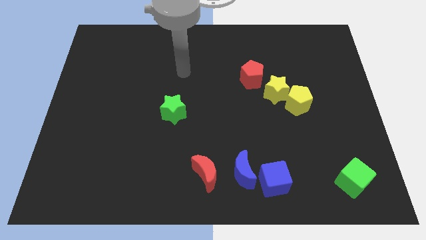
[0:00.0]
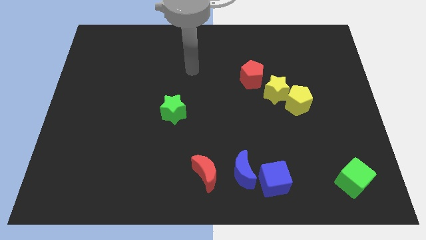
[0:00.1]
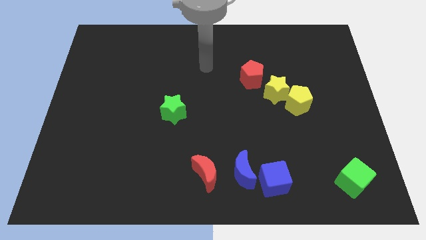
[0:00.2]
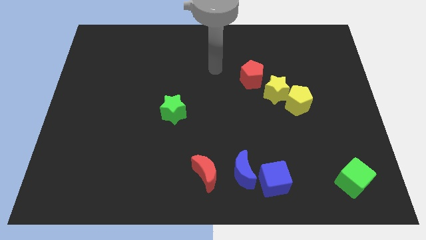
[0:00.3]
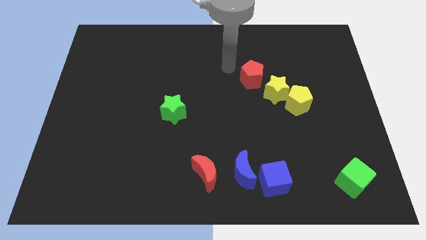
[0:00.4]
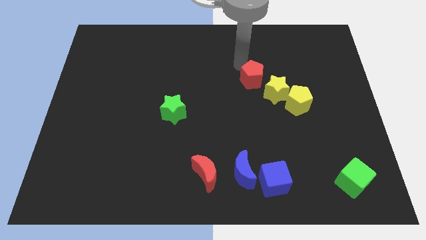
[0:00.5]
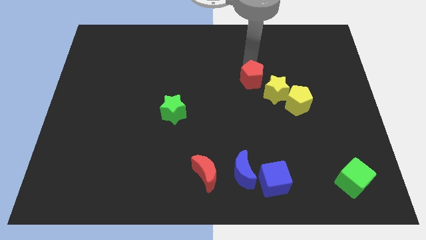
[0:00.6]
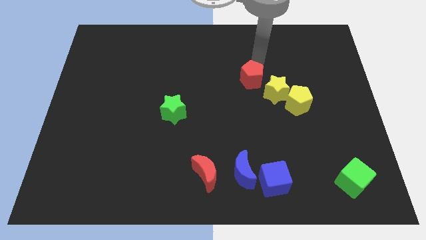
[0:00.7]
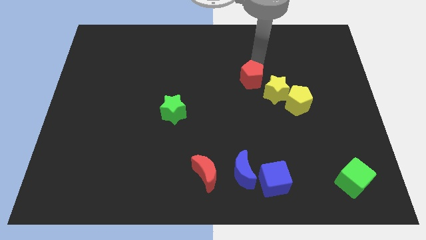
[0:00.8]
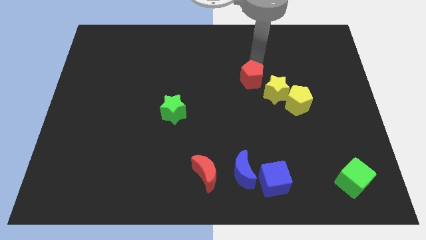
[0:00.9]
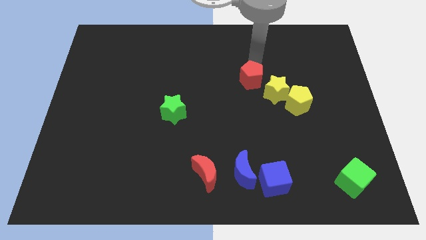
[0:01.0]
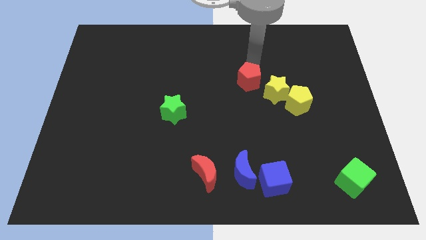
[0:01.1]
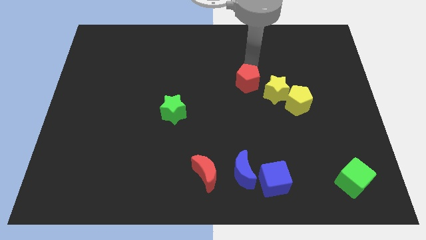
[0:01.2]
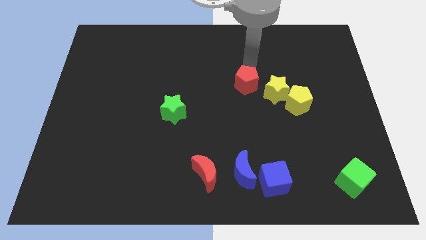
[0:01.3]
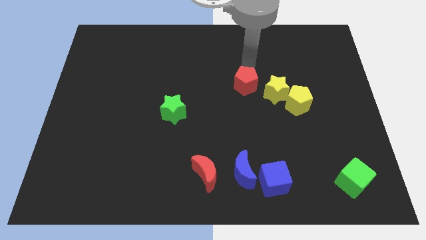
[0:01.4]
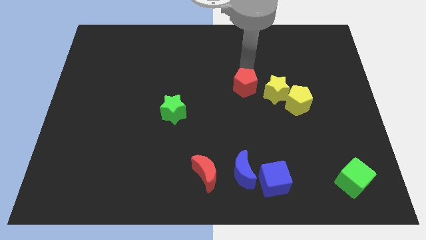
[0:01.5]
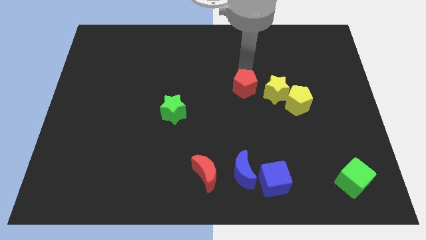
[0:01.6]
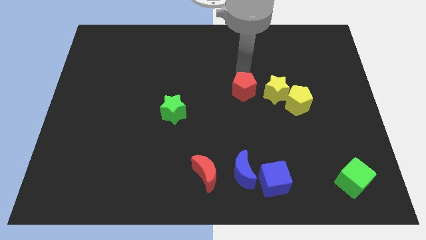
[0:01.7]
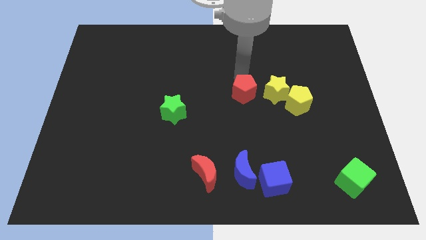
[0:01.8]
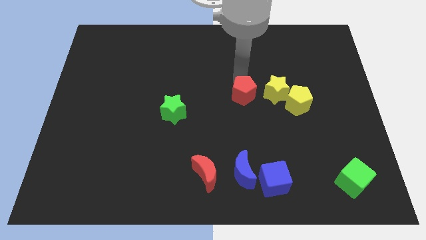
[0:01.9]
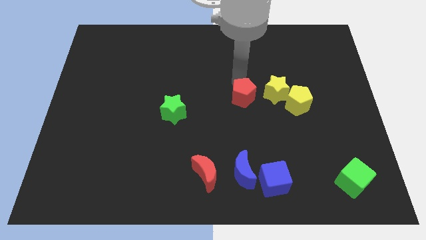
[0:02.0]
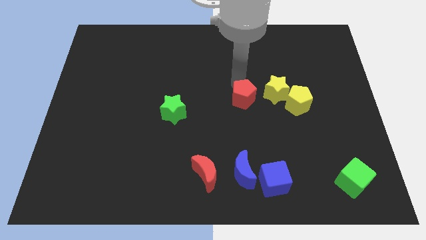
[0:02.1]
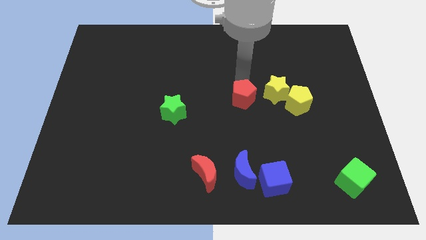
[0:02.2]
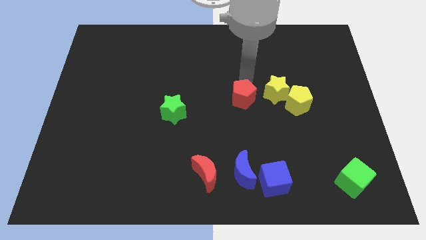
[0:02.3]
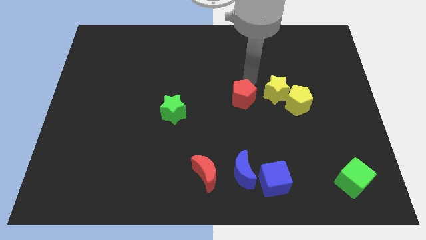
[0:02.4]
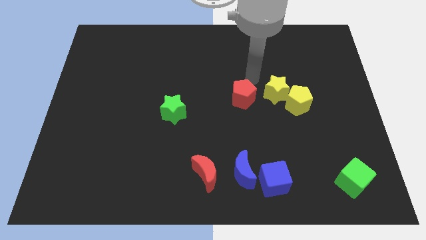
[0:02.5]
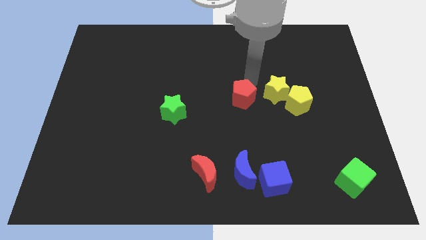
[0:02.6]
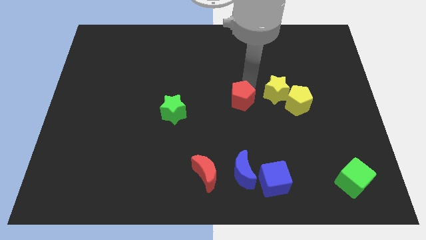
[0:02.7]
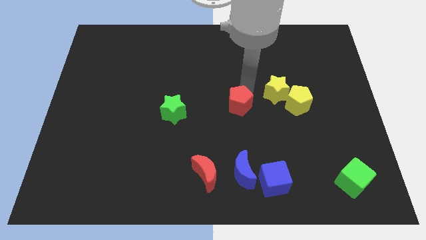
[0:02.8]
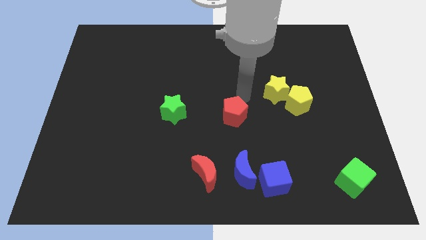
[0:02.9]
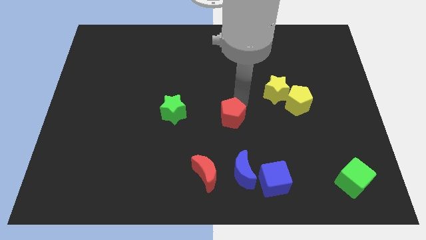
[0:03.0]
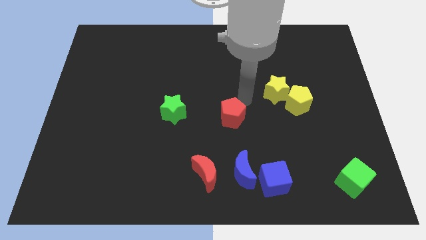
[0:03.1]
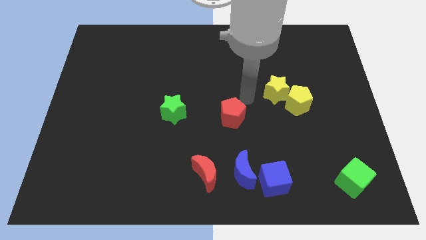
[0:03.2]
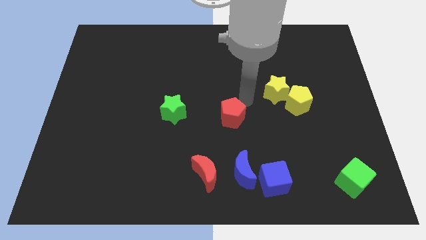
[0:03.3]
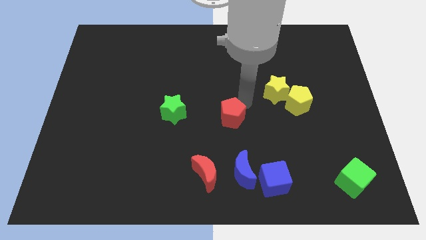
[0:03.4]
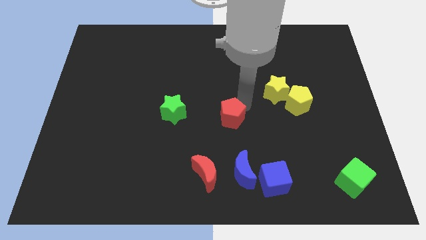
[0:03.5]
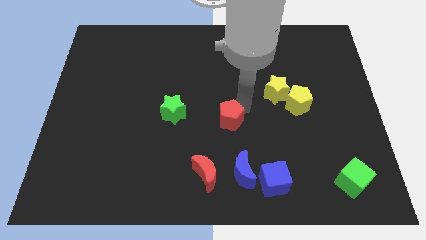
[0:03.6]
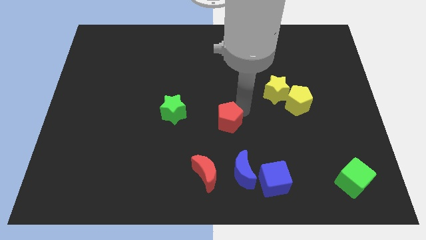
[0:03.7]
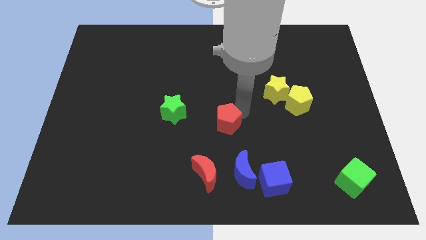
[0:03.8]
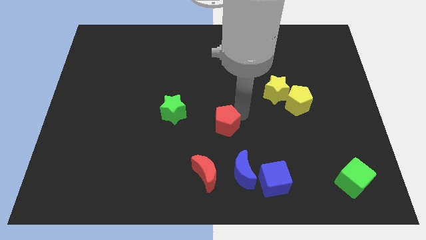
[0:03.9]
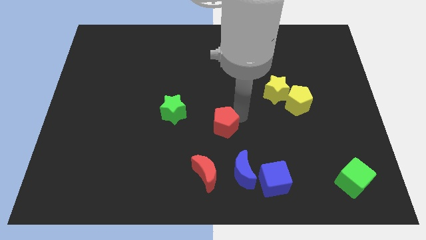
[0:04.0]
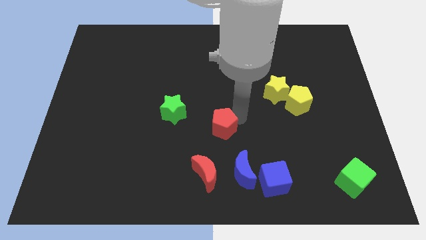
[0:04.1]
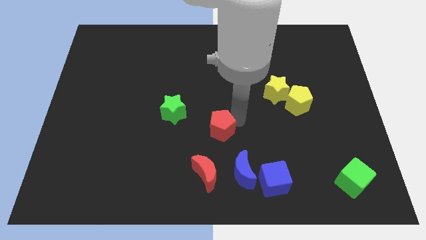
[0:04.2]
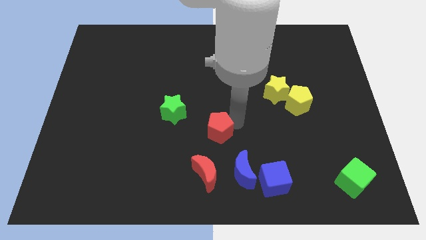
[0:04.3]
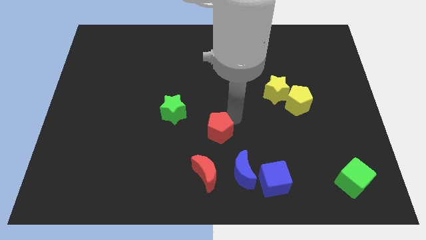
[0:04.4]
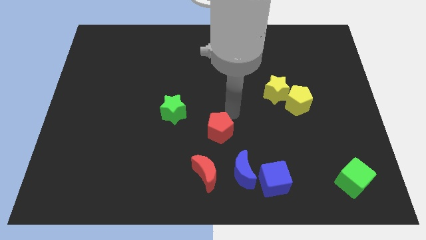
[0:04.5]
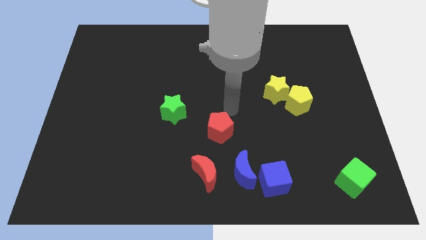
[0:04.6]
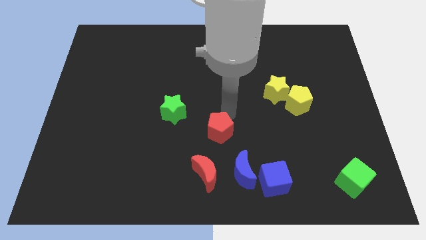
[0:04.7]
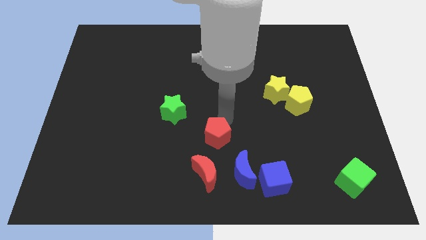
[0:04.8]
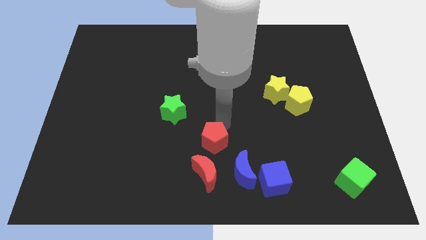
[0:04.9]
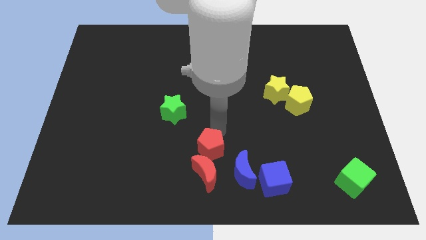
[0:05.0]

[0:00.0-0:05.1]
move the red pentagon to the red moon

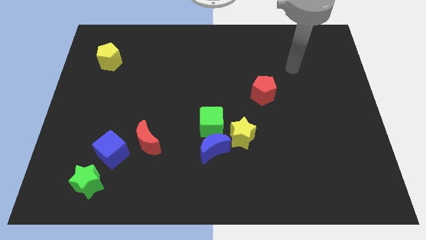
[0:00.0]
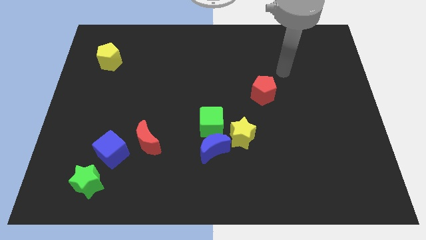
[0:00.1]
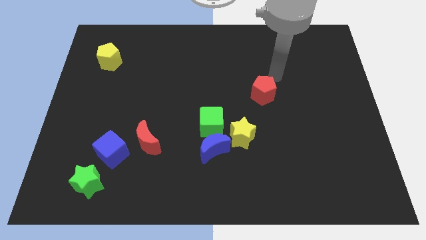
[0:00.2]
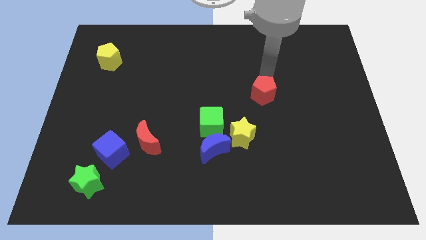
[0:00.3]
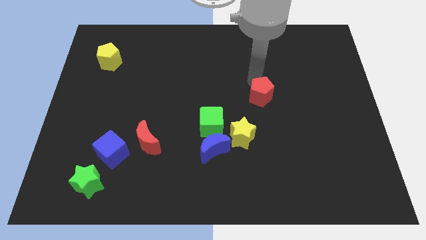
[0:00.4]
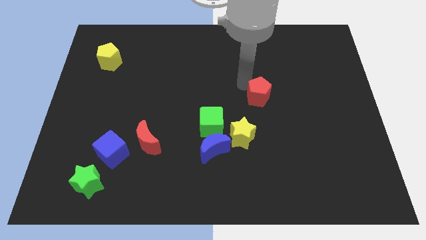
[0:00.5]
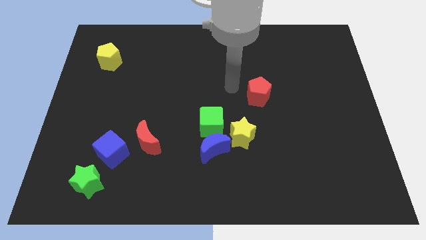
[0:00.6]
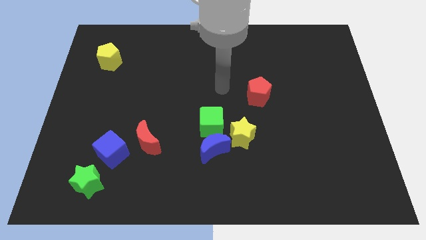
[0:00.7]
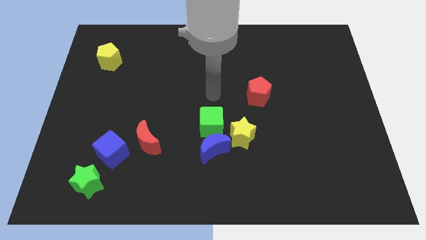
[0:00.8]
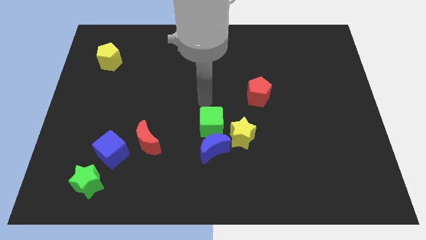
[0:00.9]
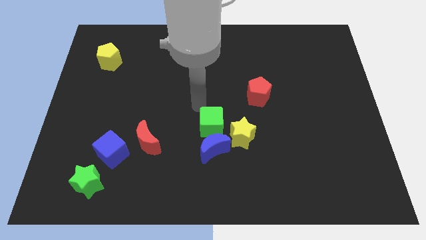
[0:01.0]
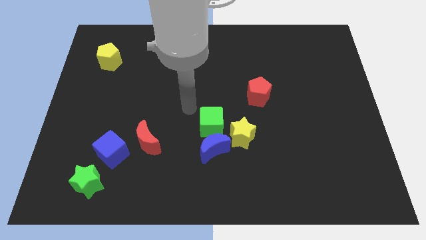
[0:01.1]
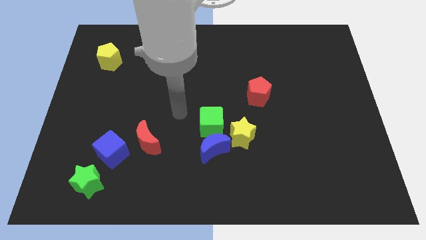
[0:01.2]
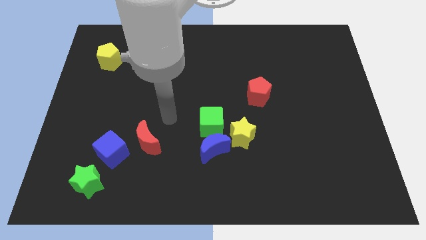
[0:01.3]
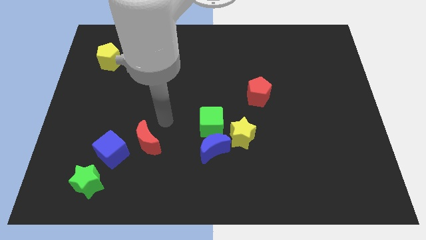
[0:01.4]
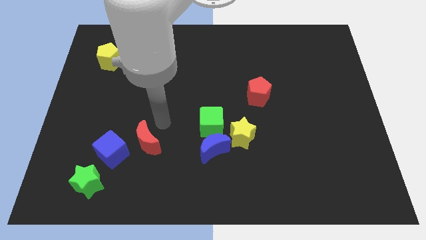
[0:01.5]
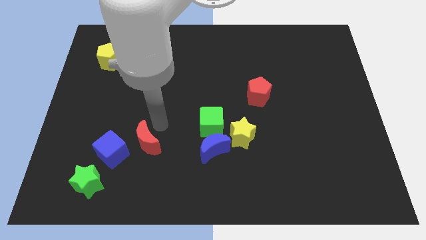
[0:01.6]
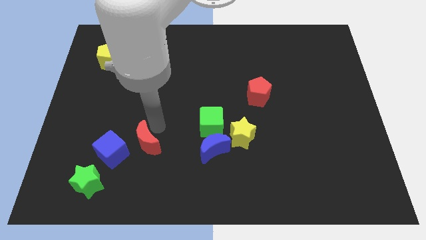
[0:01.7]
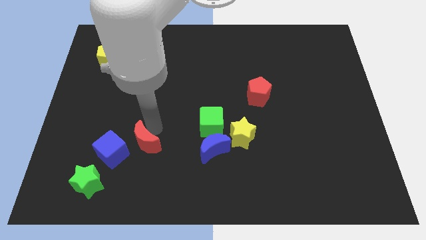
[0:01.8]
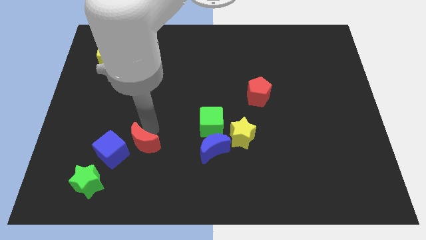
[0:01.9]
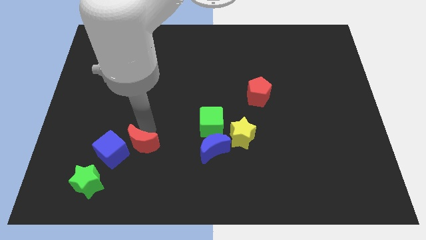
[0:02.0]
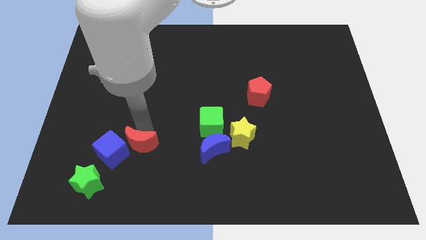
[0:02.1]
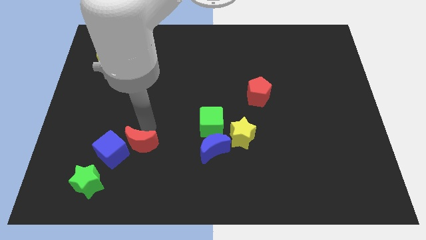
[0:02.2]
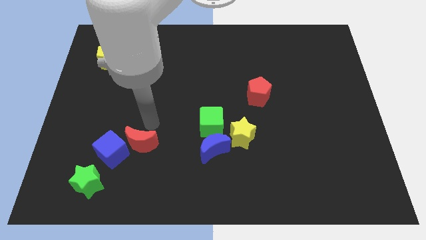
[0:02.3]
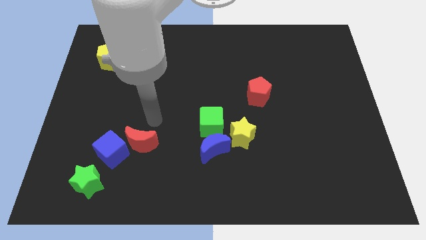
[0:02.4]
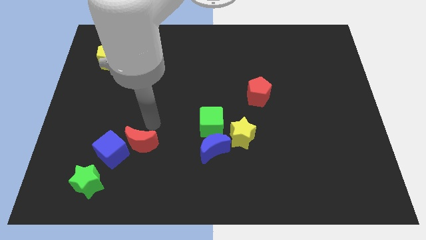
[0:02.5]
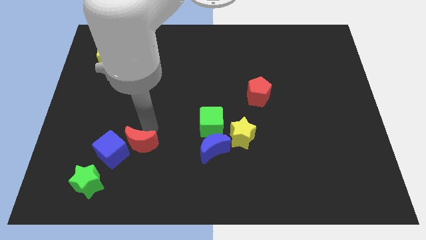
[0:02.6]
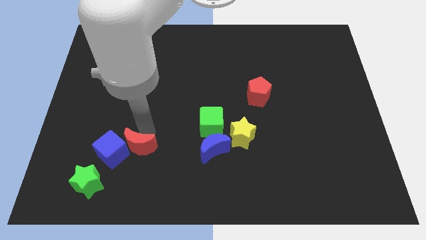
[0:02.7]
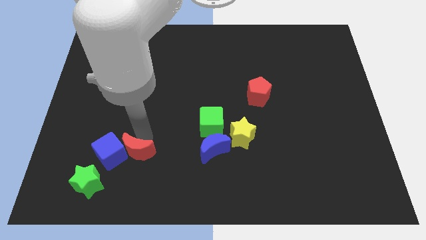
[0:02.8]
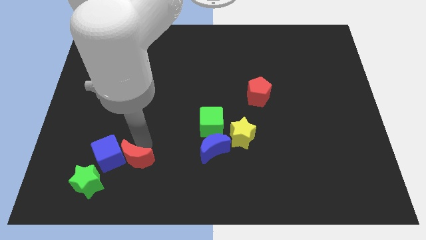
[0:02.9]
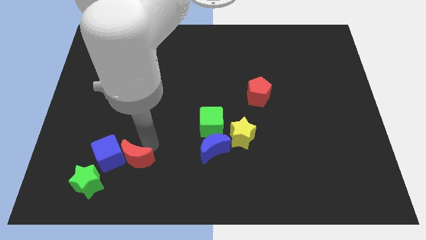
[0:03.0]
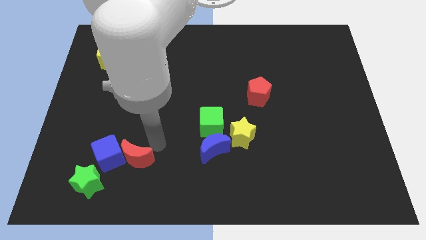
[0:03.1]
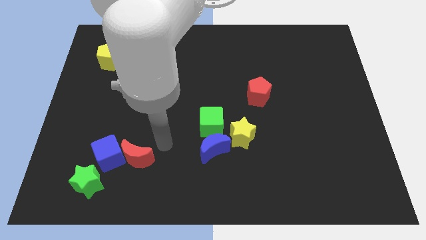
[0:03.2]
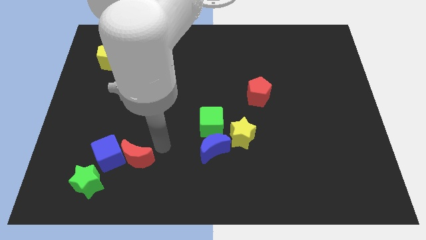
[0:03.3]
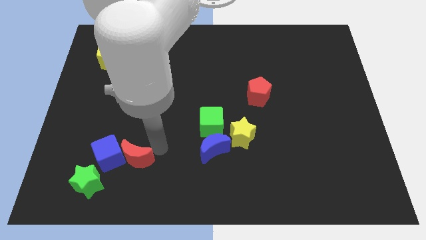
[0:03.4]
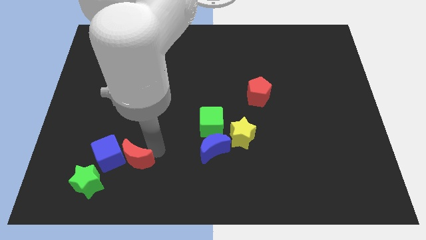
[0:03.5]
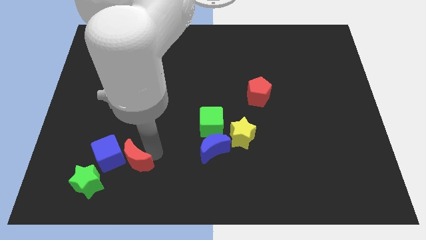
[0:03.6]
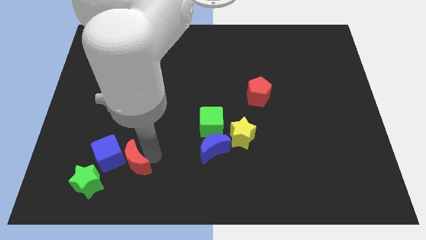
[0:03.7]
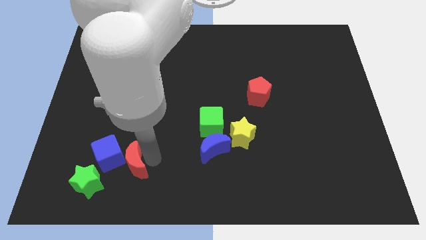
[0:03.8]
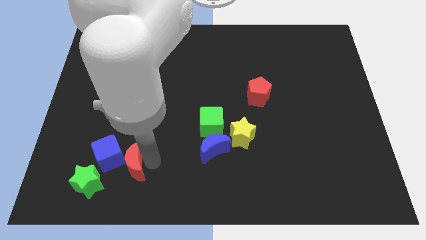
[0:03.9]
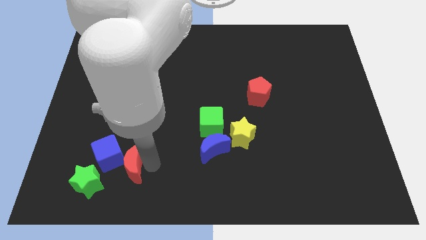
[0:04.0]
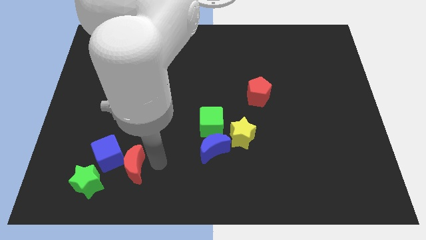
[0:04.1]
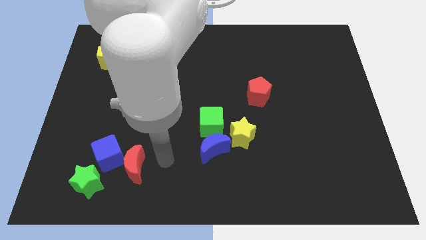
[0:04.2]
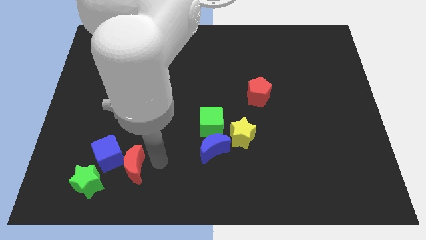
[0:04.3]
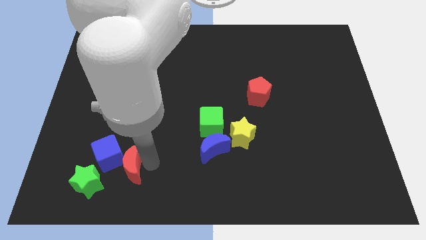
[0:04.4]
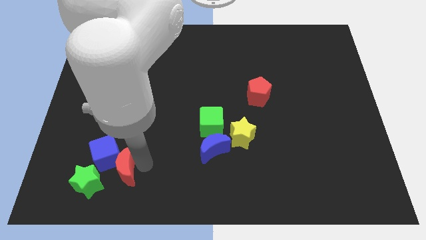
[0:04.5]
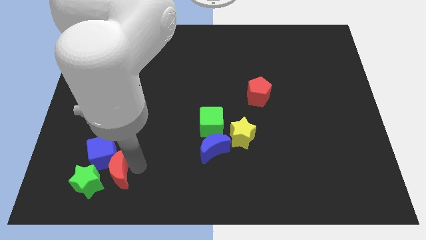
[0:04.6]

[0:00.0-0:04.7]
put the red moon close to the green star
